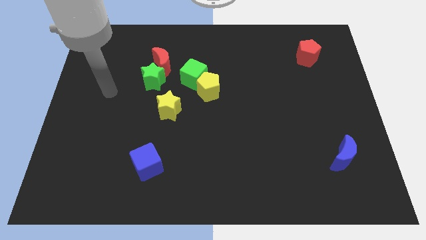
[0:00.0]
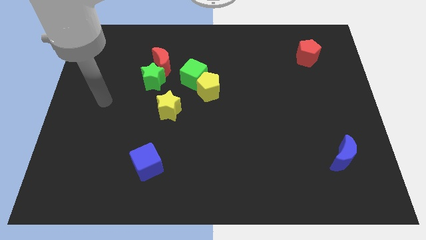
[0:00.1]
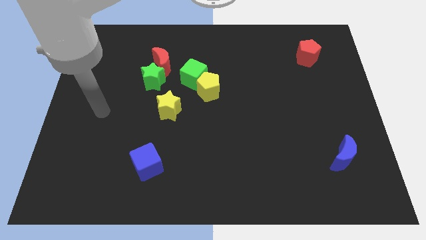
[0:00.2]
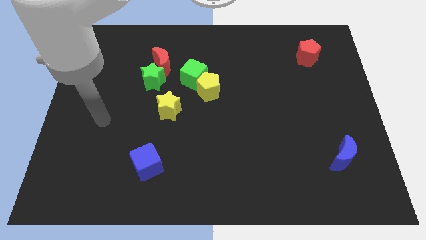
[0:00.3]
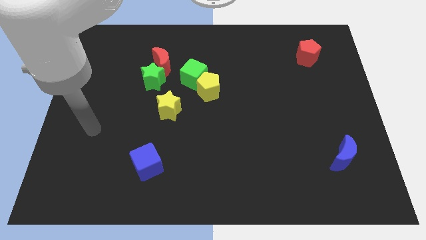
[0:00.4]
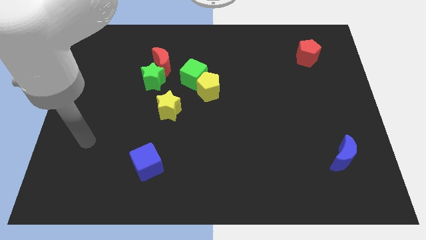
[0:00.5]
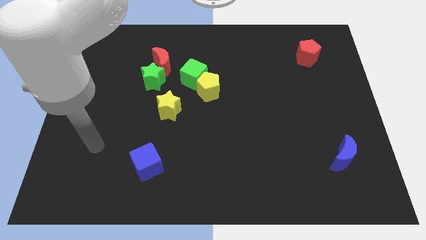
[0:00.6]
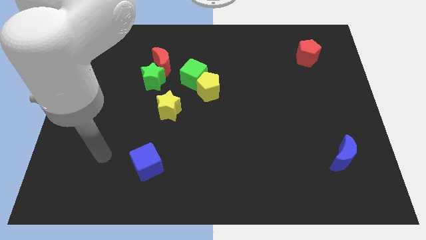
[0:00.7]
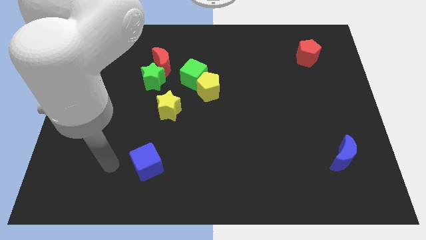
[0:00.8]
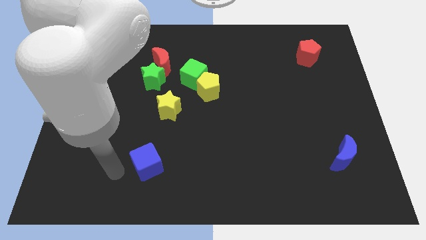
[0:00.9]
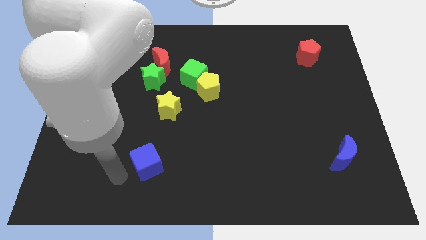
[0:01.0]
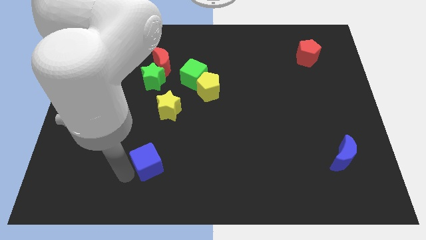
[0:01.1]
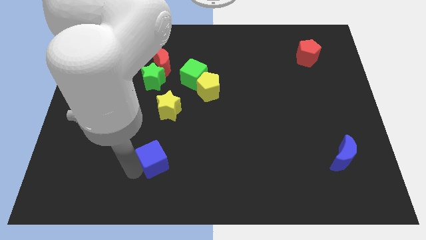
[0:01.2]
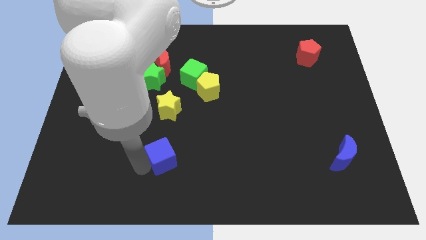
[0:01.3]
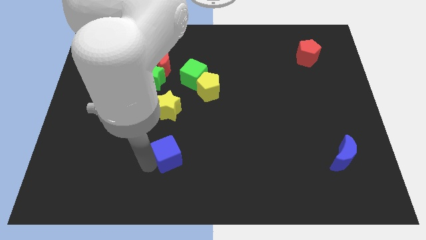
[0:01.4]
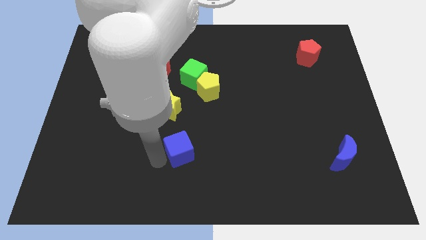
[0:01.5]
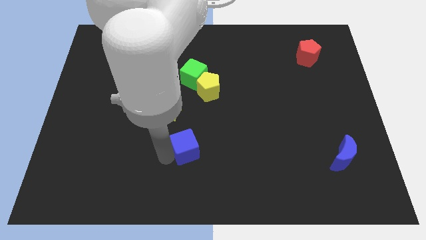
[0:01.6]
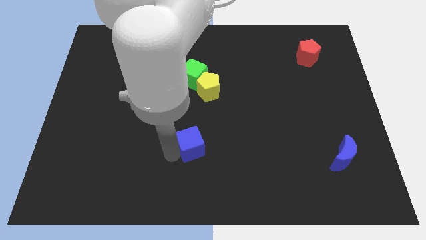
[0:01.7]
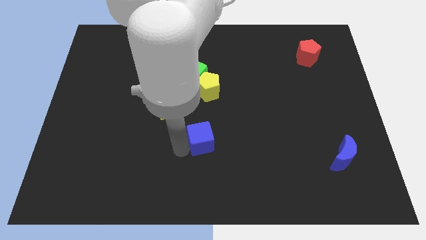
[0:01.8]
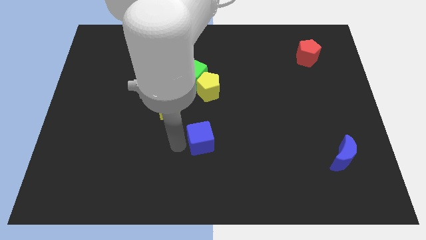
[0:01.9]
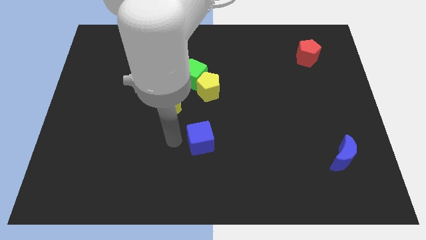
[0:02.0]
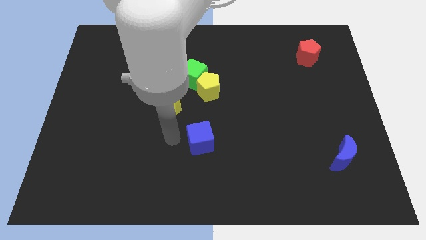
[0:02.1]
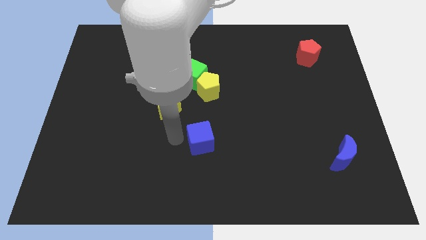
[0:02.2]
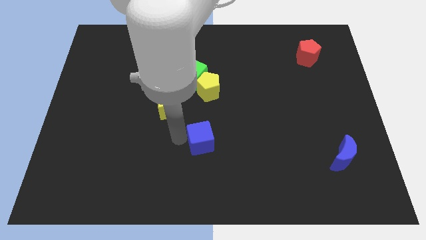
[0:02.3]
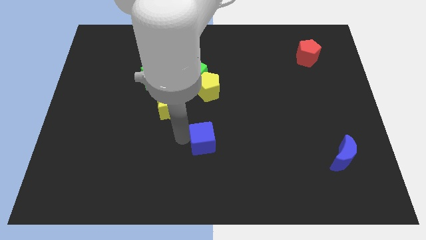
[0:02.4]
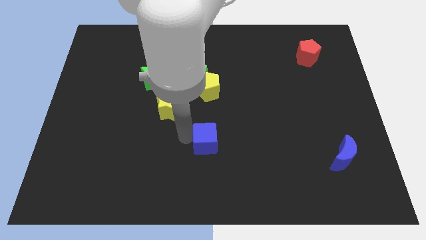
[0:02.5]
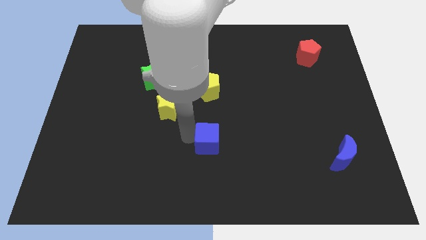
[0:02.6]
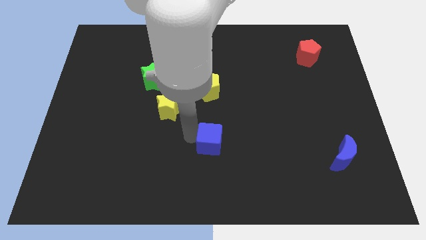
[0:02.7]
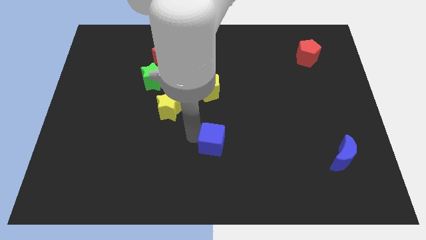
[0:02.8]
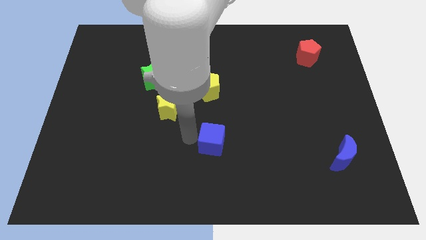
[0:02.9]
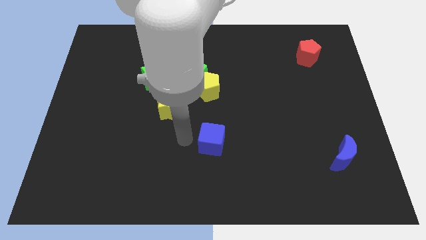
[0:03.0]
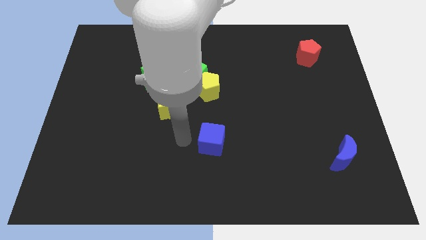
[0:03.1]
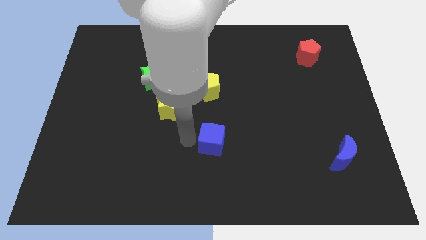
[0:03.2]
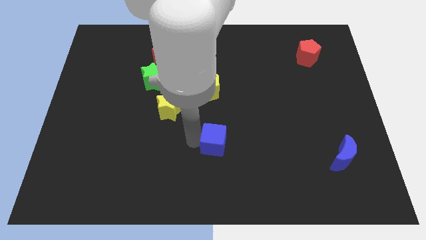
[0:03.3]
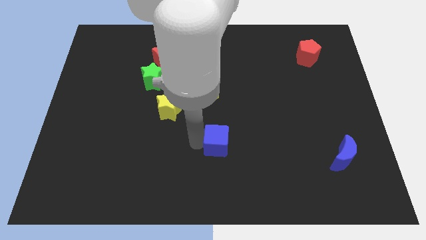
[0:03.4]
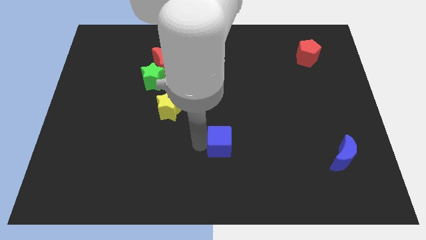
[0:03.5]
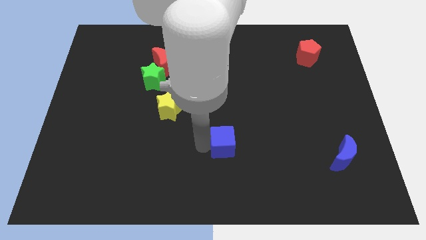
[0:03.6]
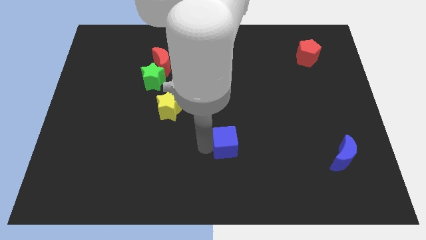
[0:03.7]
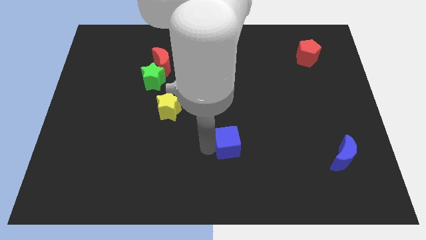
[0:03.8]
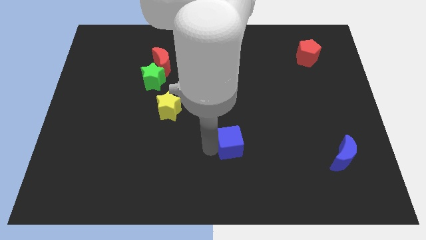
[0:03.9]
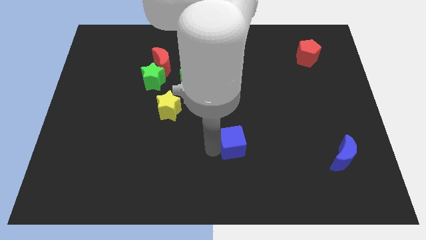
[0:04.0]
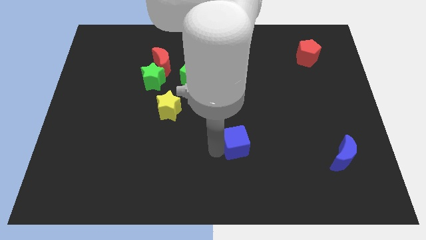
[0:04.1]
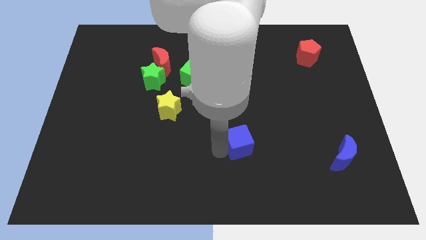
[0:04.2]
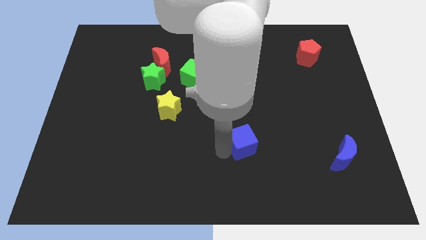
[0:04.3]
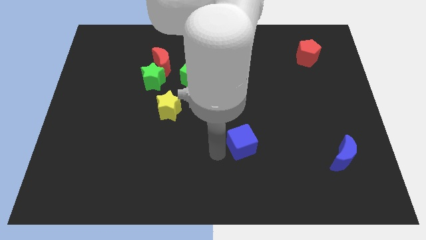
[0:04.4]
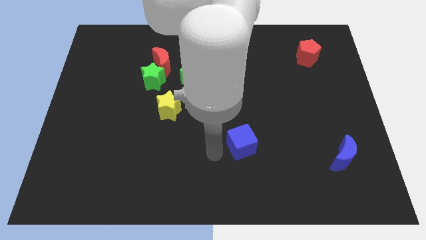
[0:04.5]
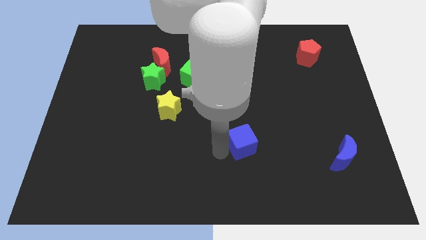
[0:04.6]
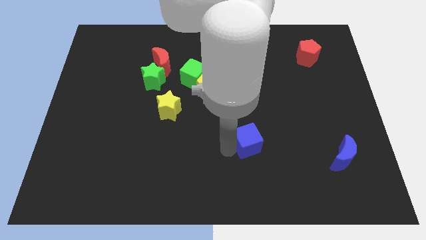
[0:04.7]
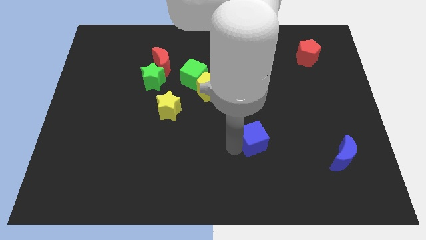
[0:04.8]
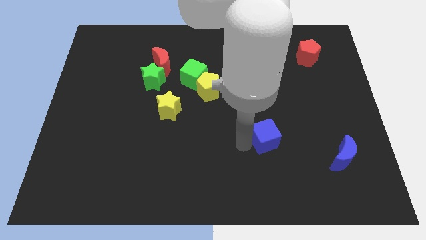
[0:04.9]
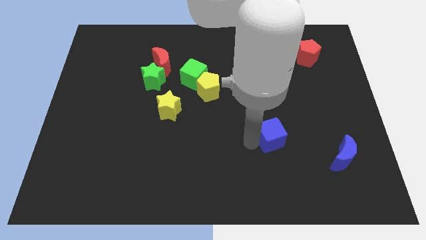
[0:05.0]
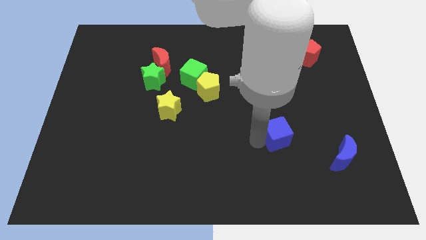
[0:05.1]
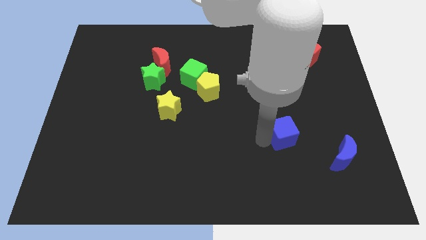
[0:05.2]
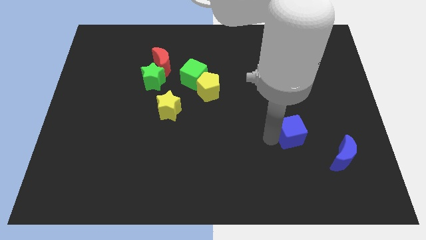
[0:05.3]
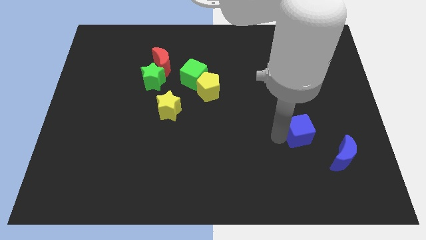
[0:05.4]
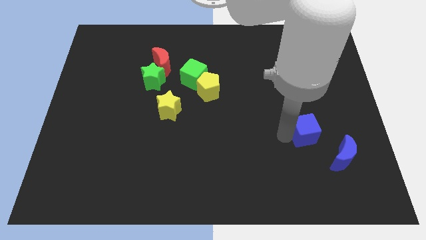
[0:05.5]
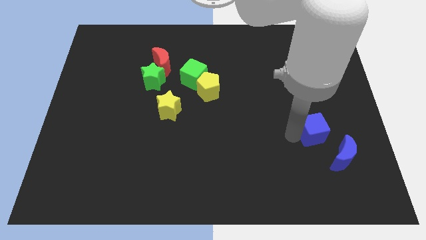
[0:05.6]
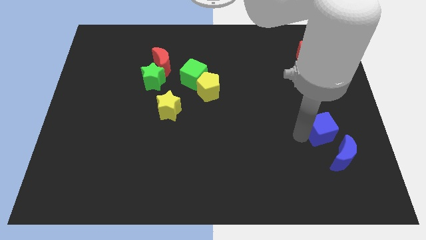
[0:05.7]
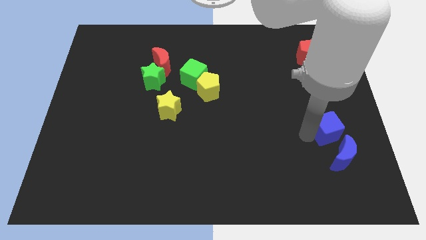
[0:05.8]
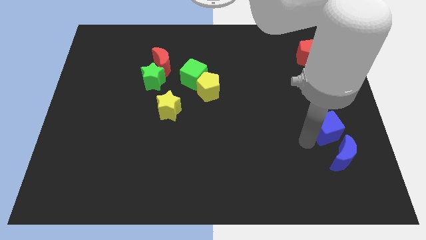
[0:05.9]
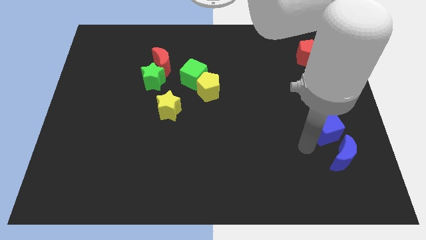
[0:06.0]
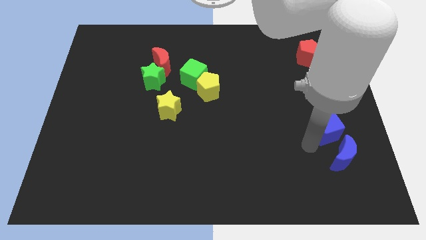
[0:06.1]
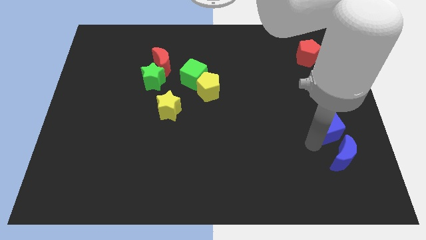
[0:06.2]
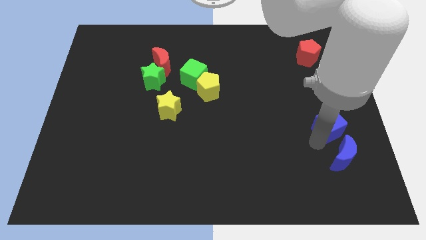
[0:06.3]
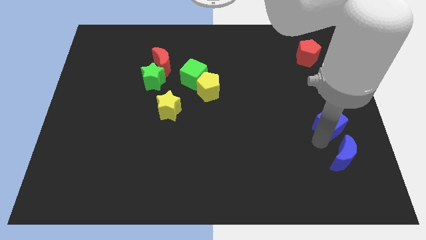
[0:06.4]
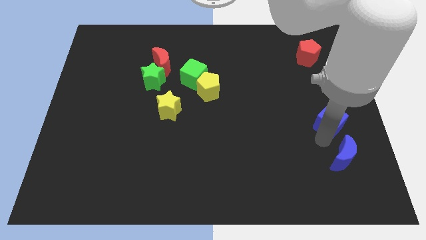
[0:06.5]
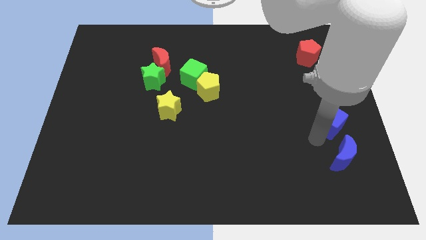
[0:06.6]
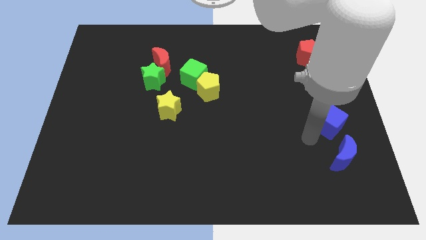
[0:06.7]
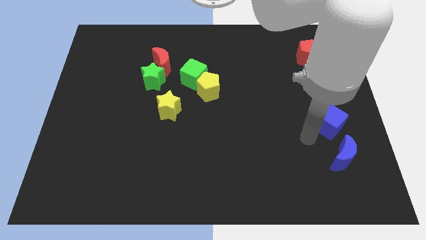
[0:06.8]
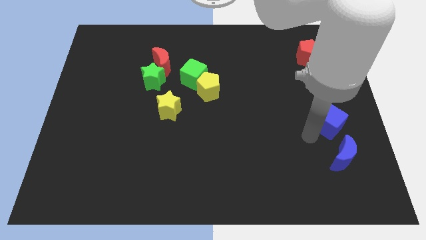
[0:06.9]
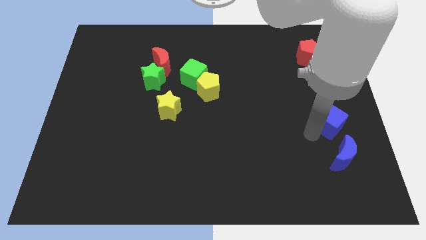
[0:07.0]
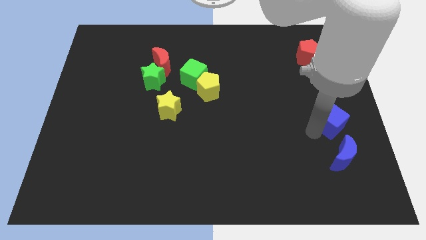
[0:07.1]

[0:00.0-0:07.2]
push the blue cube to the center right
